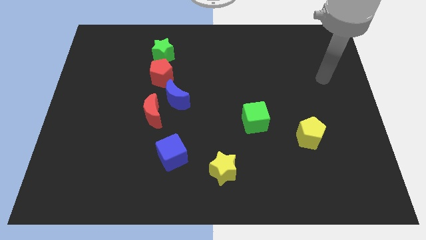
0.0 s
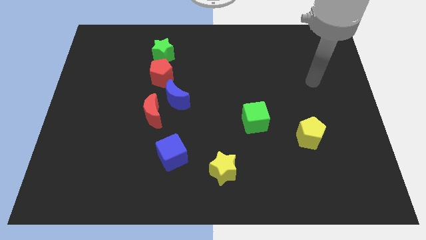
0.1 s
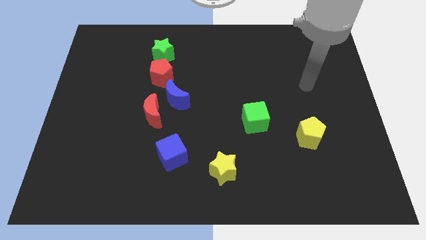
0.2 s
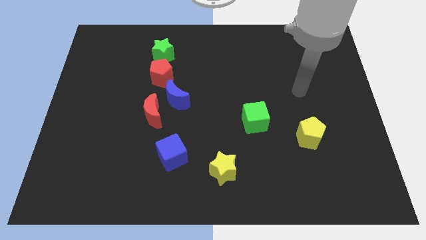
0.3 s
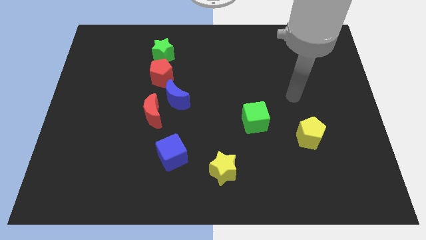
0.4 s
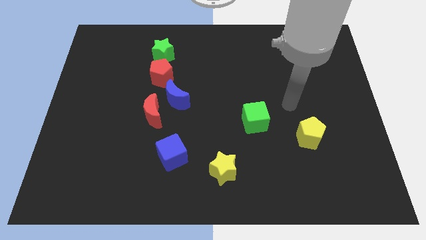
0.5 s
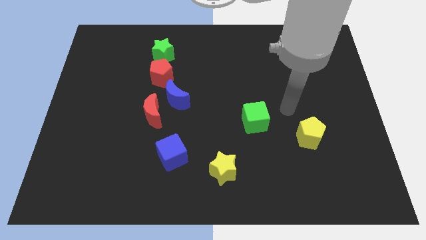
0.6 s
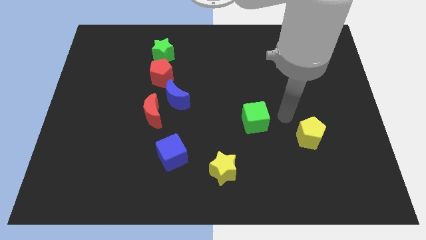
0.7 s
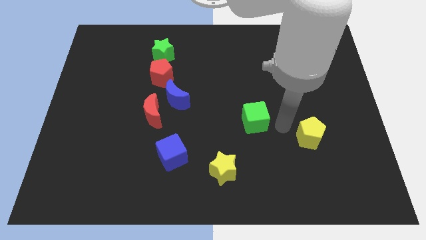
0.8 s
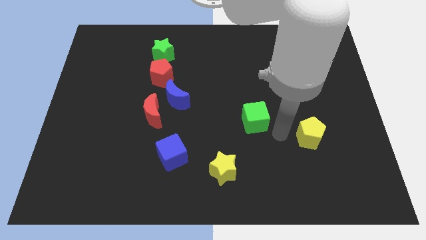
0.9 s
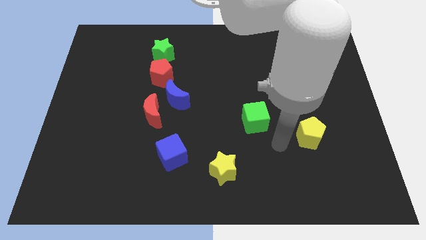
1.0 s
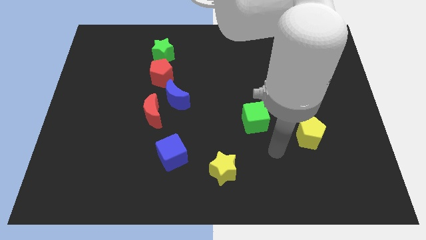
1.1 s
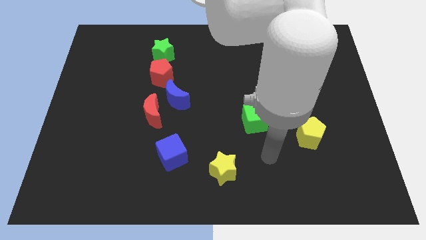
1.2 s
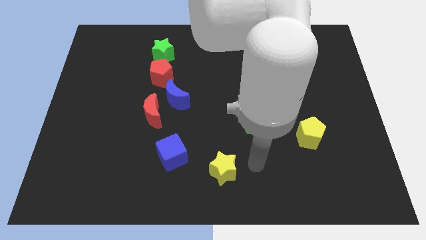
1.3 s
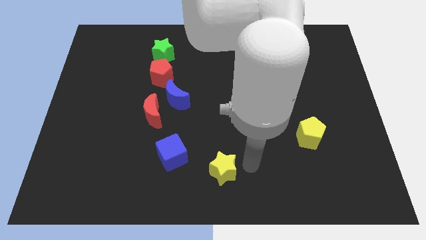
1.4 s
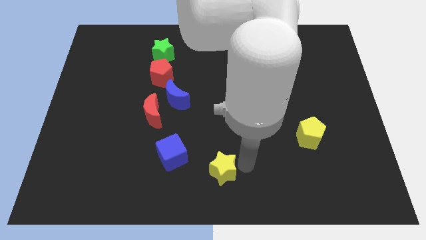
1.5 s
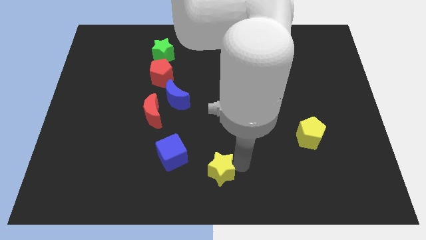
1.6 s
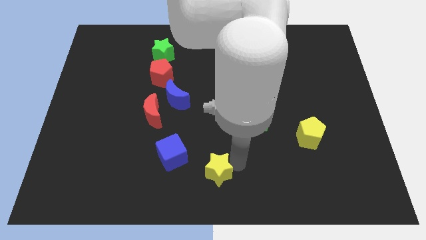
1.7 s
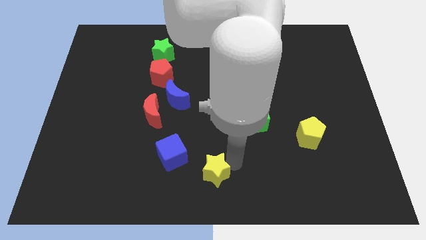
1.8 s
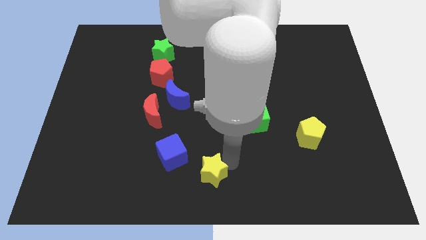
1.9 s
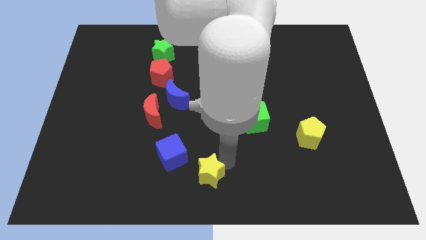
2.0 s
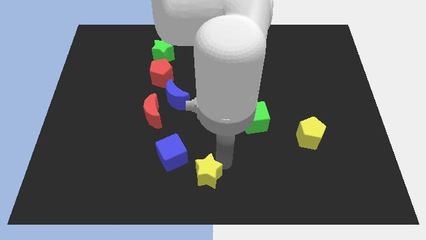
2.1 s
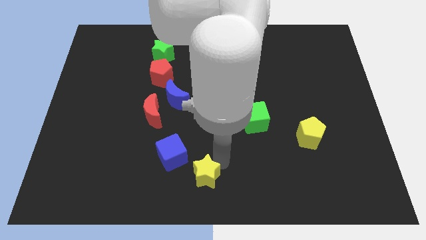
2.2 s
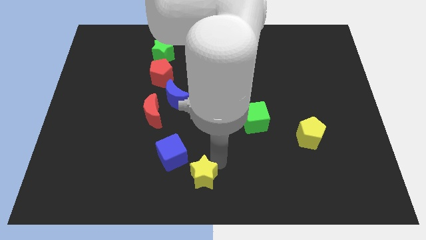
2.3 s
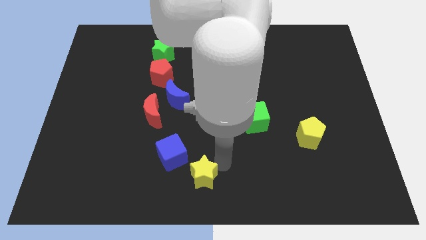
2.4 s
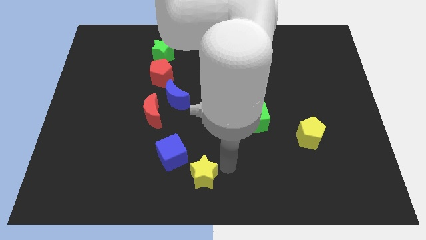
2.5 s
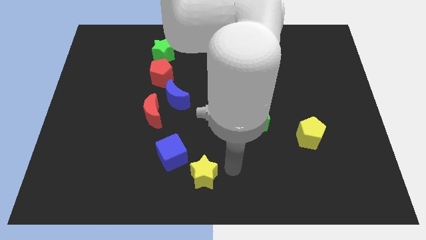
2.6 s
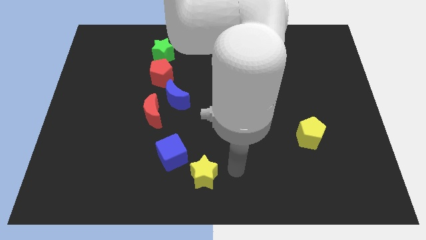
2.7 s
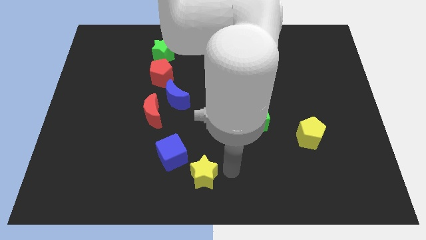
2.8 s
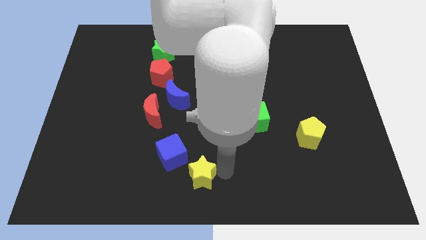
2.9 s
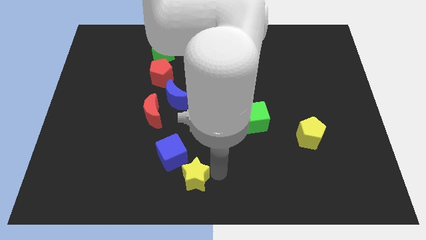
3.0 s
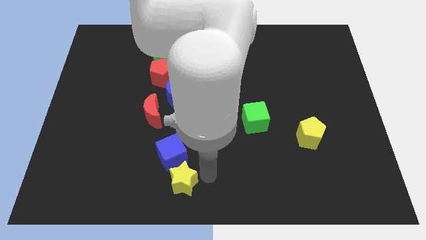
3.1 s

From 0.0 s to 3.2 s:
slightly slide the yellow star left

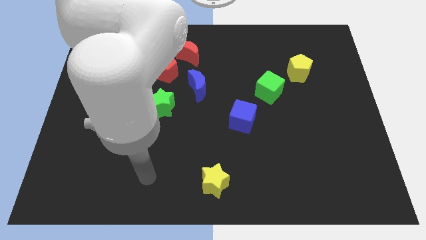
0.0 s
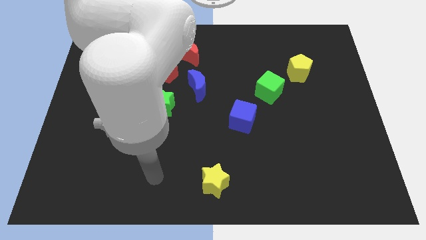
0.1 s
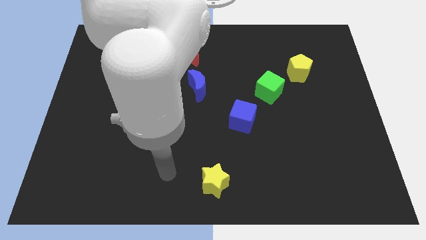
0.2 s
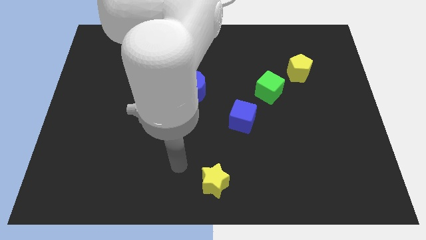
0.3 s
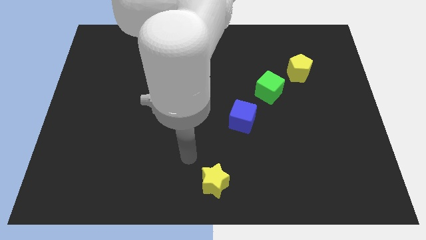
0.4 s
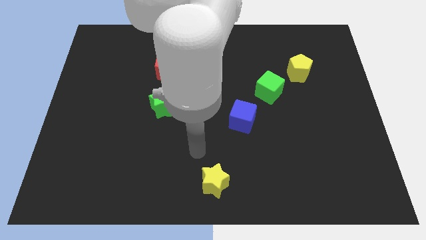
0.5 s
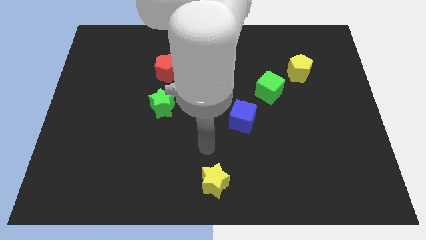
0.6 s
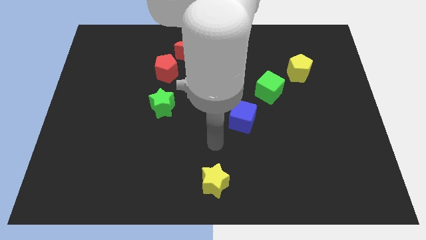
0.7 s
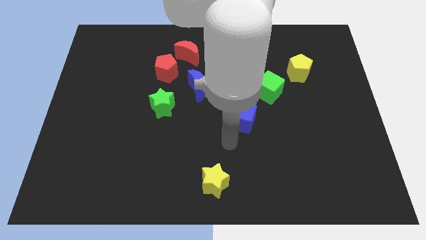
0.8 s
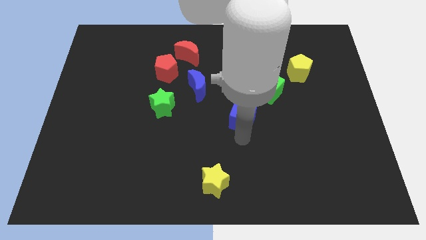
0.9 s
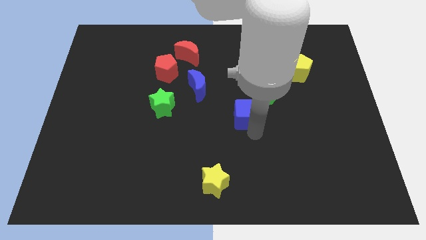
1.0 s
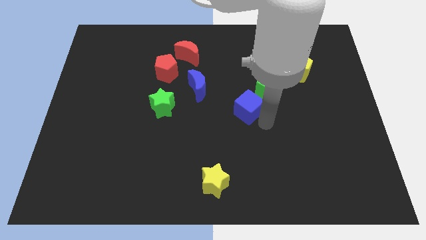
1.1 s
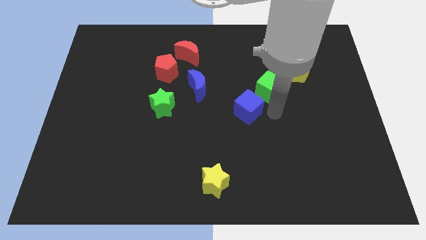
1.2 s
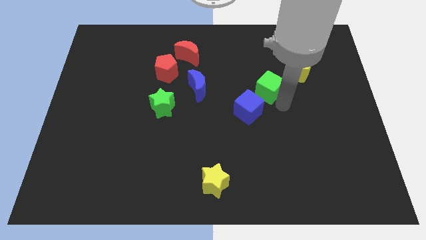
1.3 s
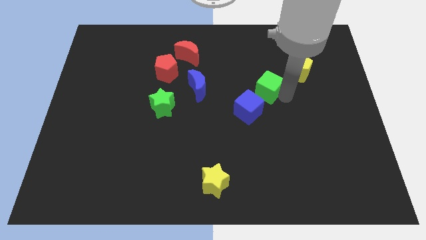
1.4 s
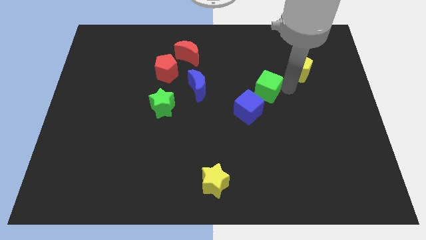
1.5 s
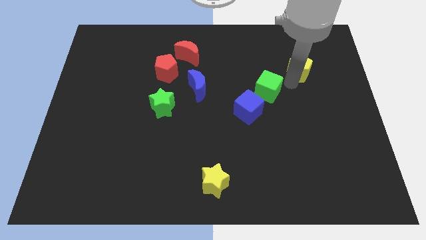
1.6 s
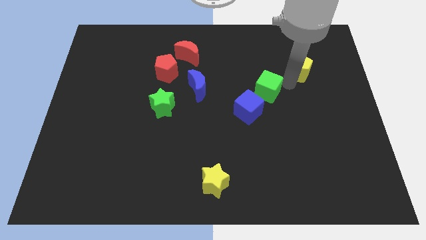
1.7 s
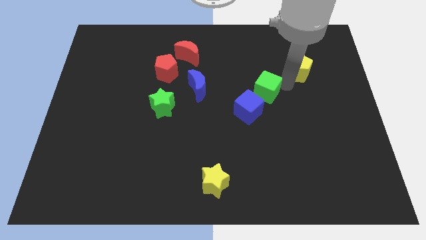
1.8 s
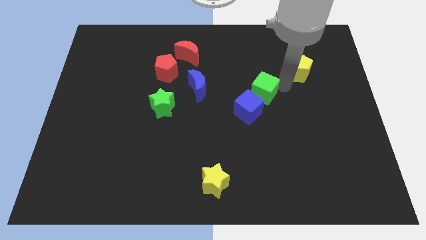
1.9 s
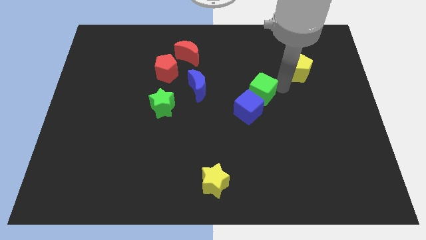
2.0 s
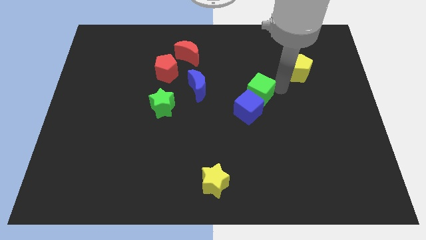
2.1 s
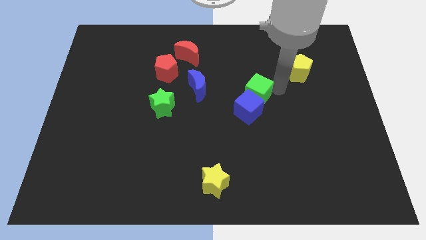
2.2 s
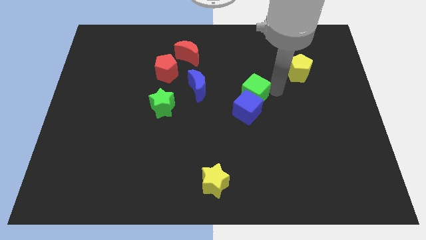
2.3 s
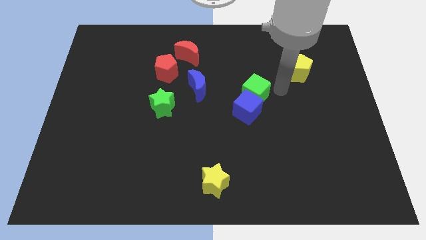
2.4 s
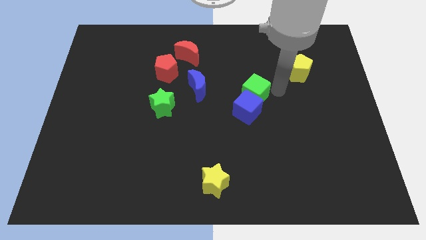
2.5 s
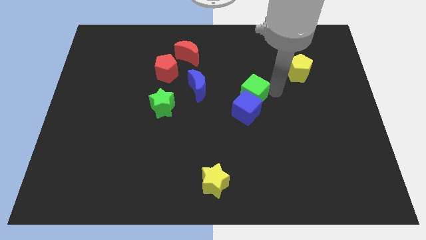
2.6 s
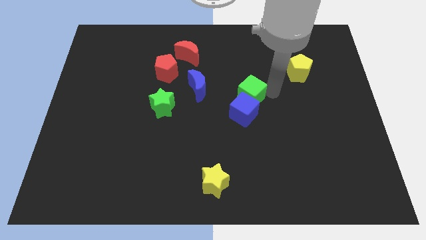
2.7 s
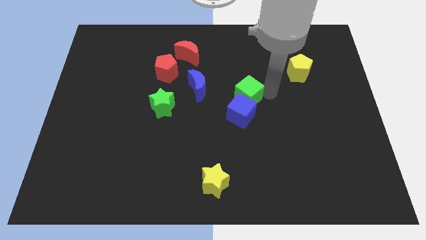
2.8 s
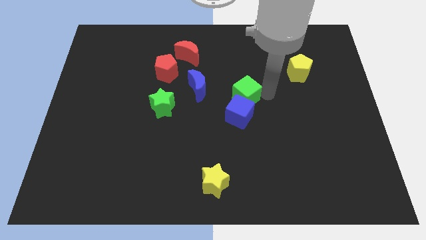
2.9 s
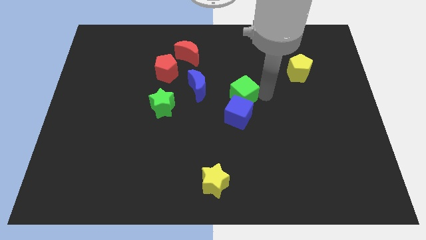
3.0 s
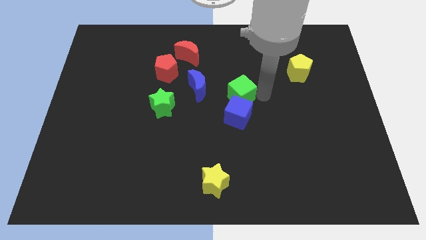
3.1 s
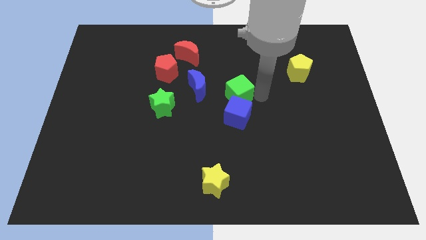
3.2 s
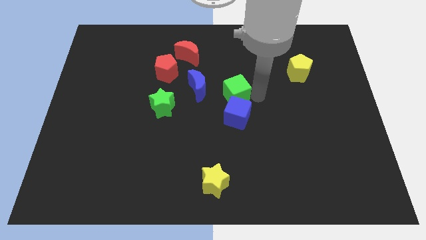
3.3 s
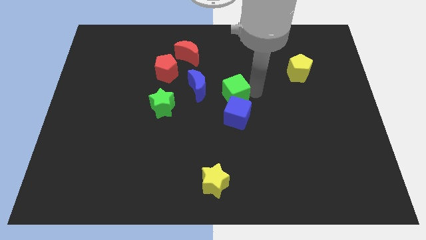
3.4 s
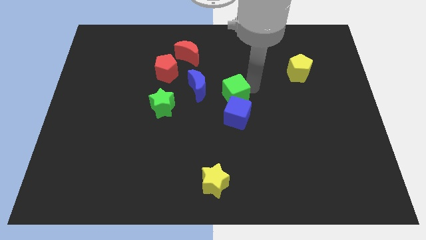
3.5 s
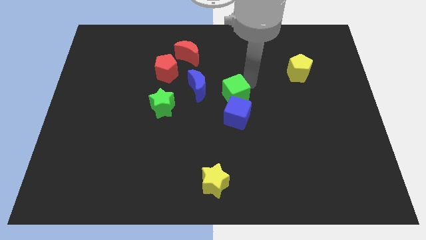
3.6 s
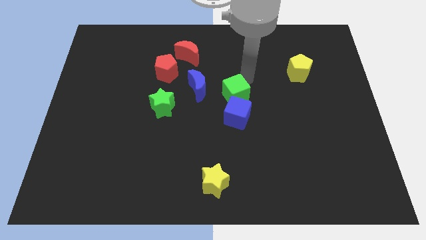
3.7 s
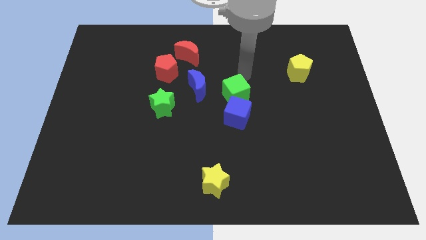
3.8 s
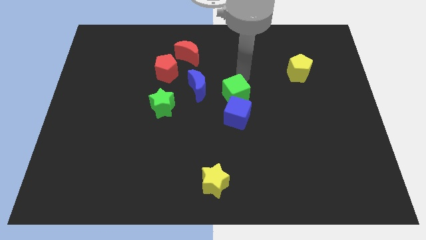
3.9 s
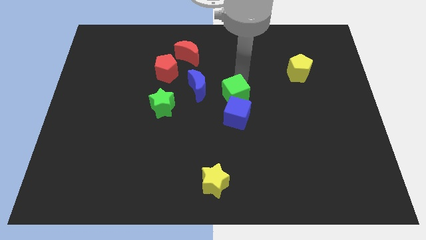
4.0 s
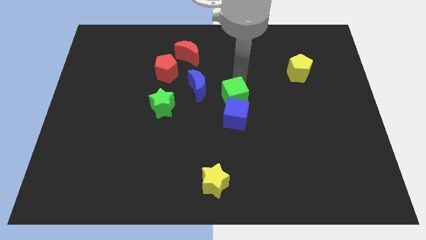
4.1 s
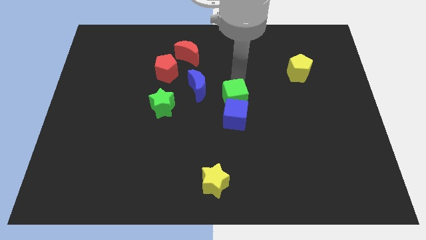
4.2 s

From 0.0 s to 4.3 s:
slide the green cube a bit downwards and left

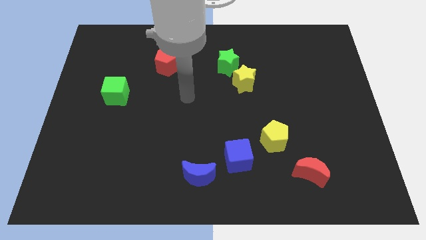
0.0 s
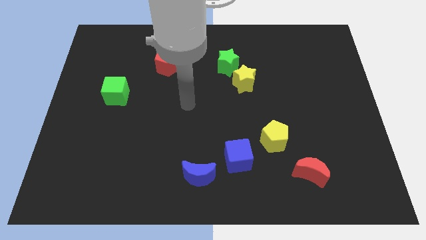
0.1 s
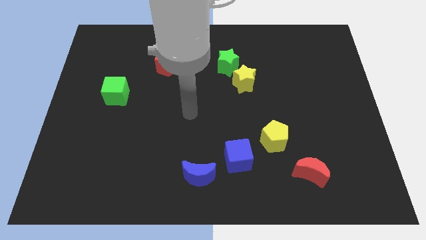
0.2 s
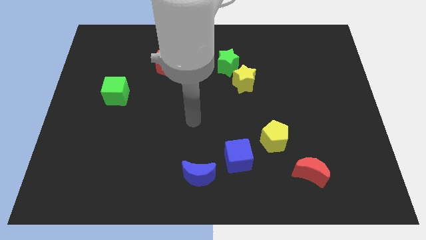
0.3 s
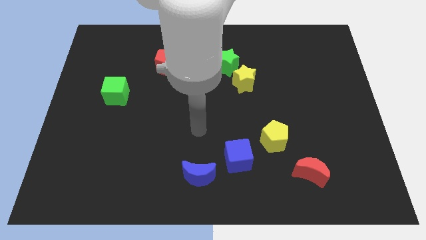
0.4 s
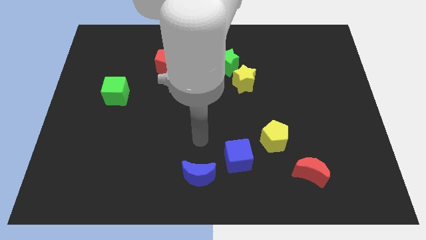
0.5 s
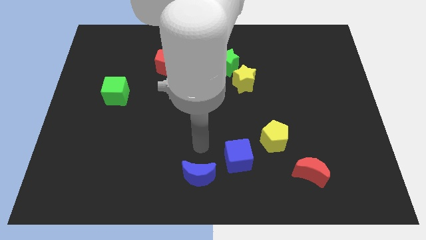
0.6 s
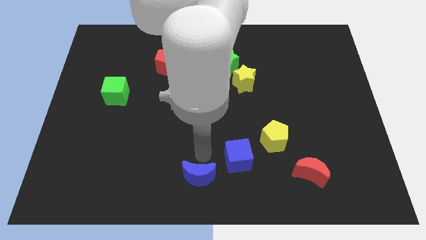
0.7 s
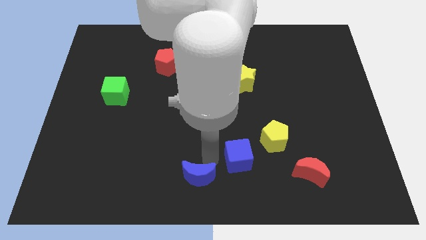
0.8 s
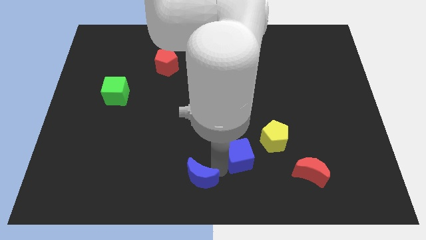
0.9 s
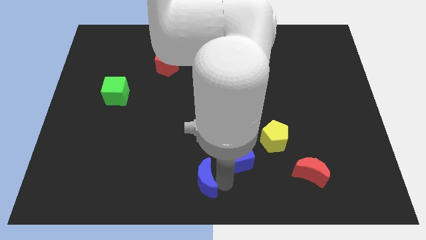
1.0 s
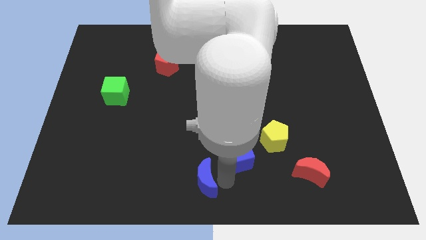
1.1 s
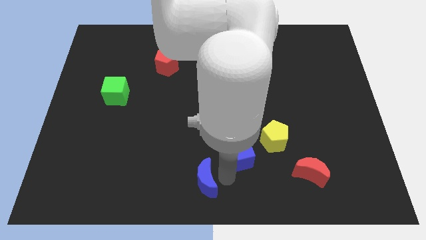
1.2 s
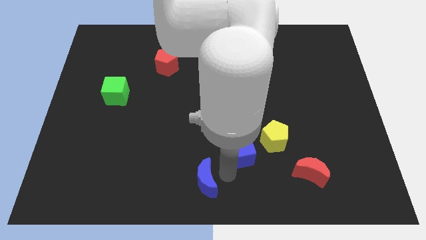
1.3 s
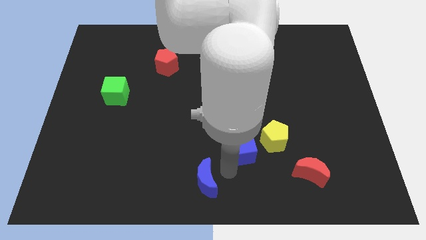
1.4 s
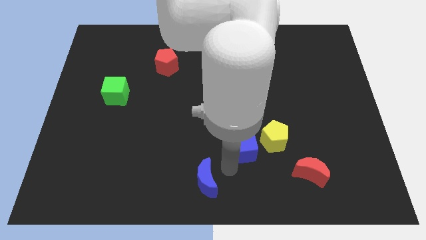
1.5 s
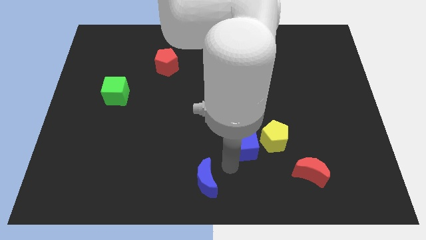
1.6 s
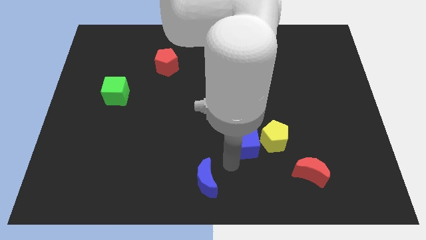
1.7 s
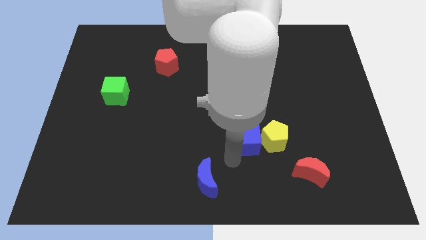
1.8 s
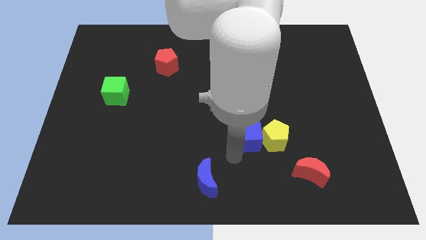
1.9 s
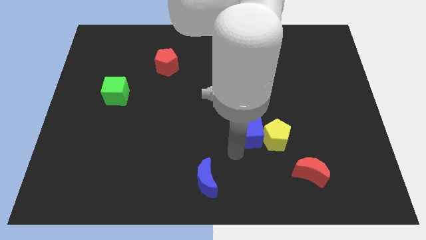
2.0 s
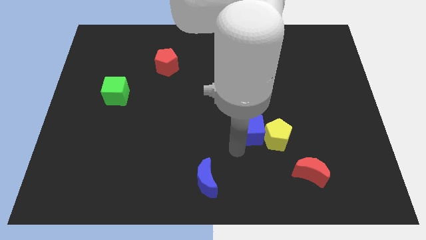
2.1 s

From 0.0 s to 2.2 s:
move the blue cube up and then to the right a little
